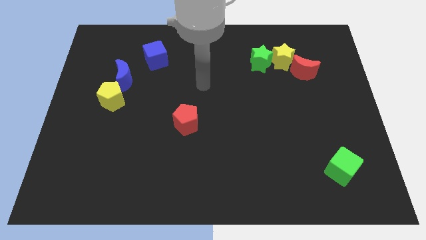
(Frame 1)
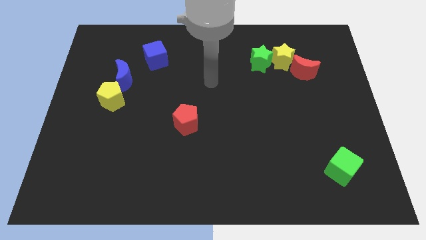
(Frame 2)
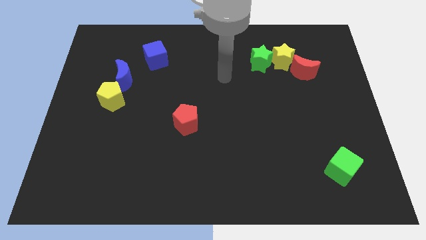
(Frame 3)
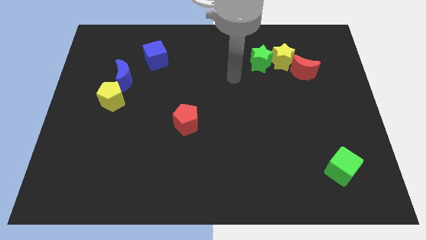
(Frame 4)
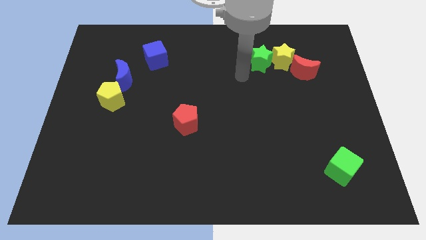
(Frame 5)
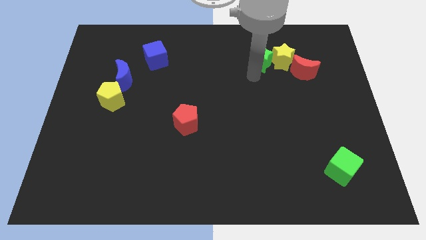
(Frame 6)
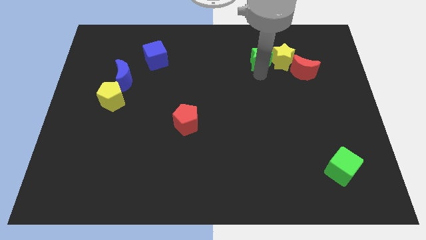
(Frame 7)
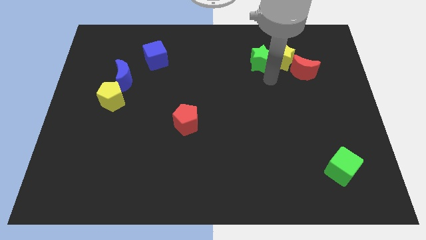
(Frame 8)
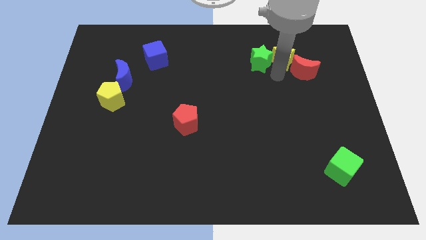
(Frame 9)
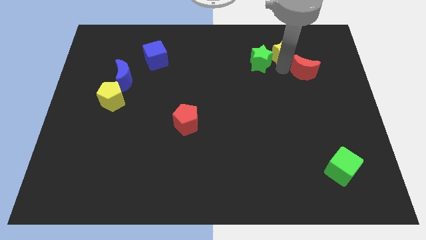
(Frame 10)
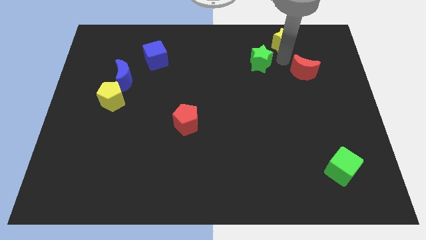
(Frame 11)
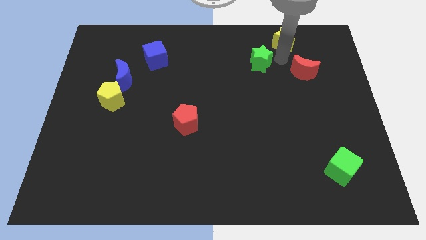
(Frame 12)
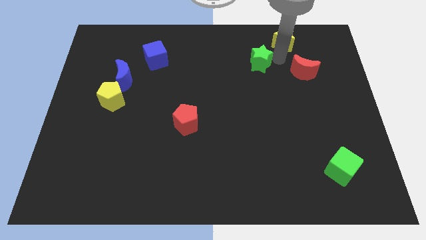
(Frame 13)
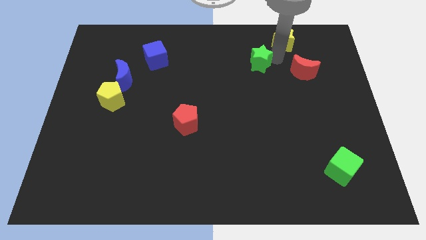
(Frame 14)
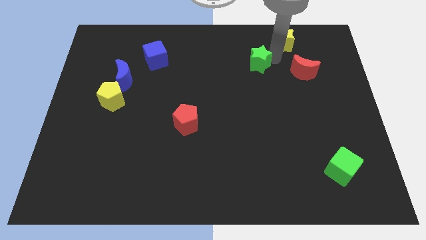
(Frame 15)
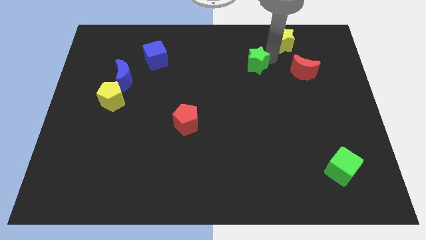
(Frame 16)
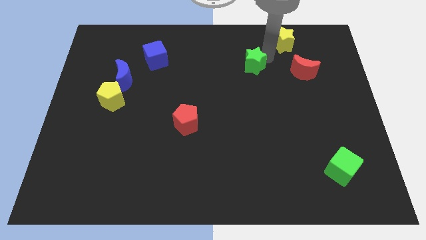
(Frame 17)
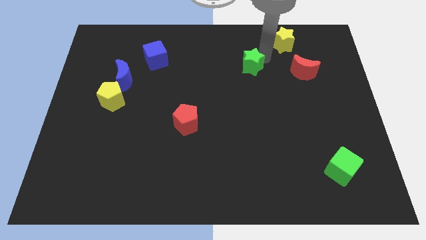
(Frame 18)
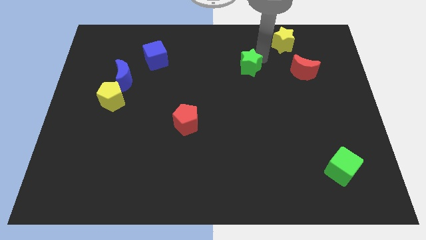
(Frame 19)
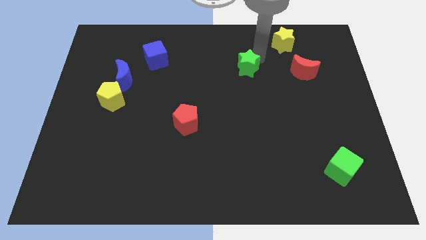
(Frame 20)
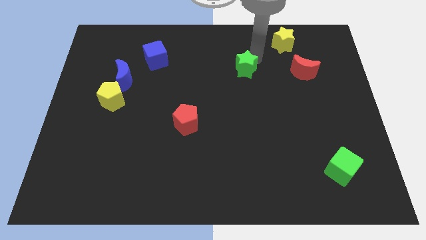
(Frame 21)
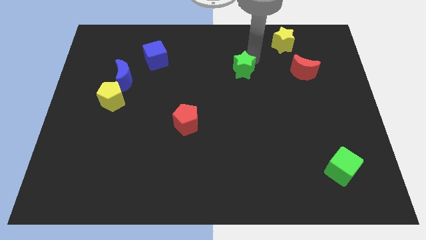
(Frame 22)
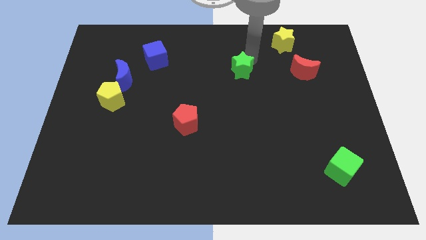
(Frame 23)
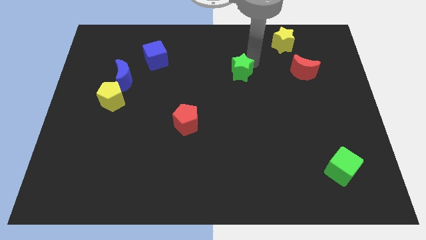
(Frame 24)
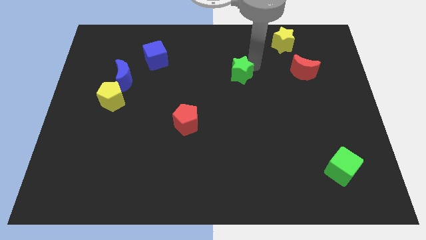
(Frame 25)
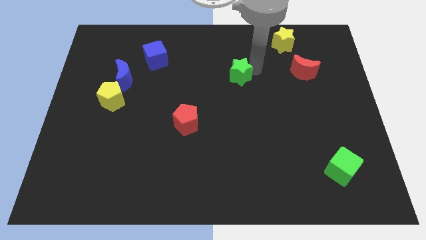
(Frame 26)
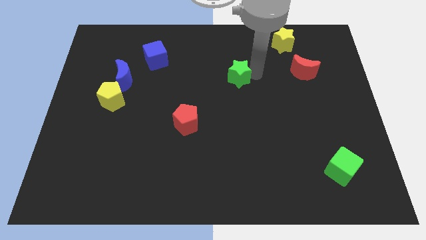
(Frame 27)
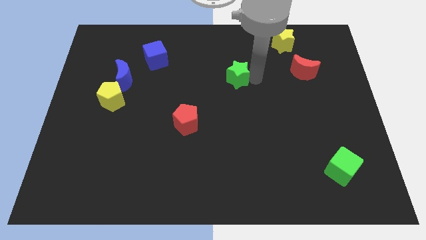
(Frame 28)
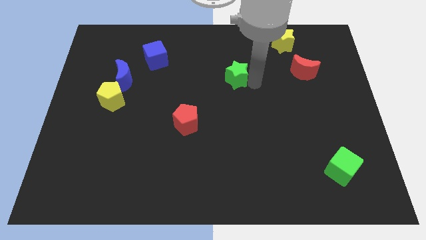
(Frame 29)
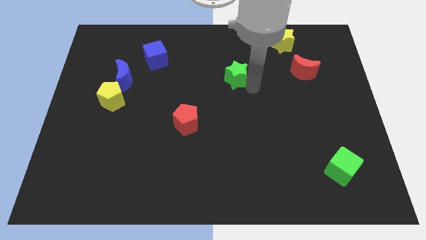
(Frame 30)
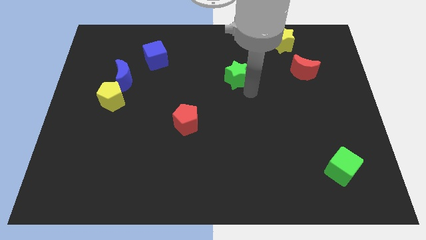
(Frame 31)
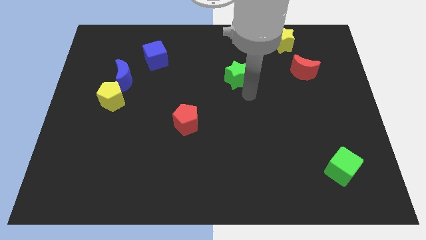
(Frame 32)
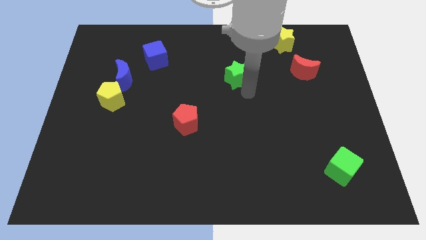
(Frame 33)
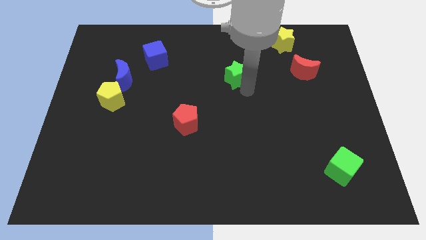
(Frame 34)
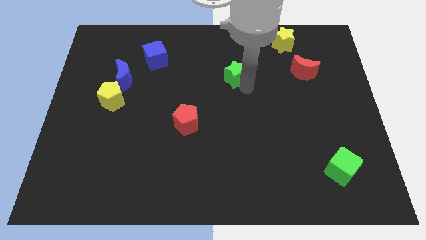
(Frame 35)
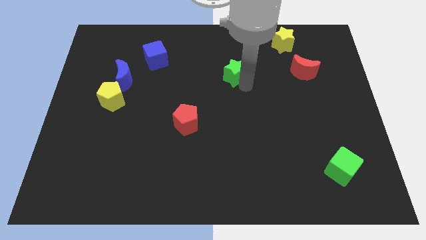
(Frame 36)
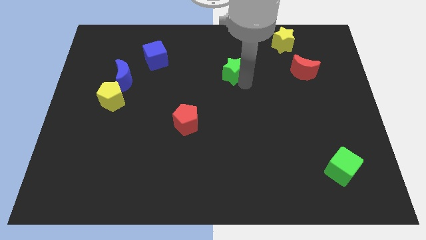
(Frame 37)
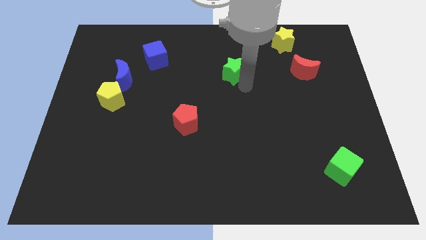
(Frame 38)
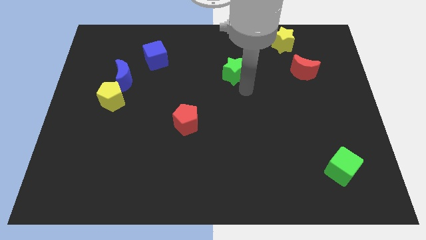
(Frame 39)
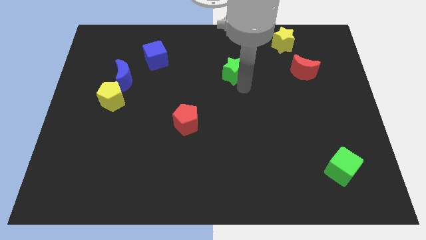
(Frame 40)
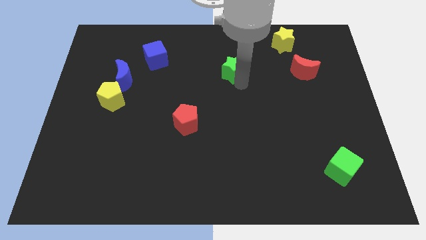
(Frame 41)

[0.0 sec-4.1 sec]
push the green star a little to the left

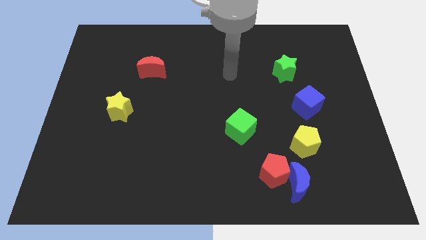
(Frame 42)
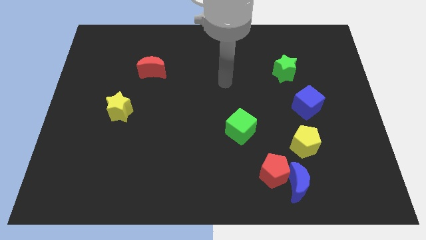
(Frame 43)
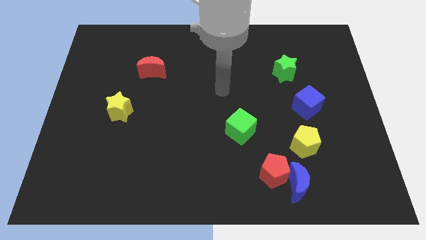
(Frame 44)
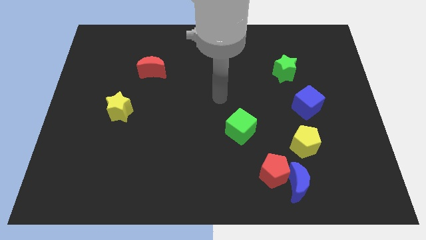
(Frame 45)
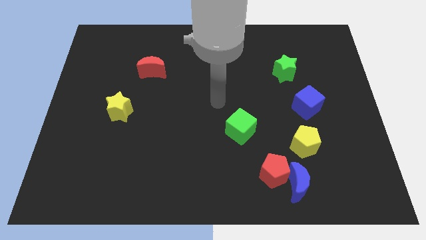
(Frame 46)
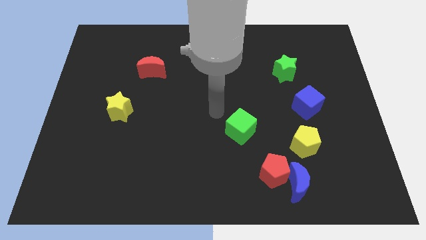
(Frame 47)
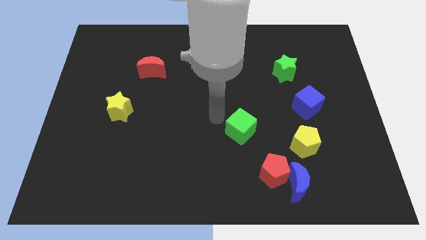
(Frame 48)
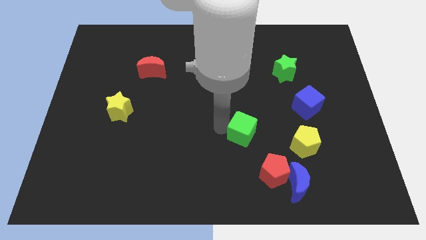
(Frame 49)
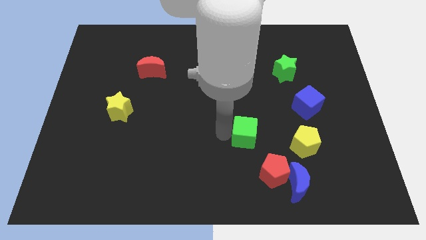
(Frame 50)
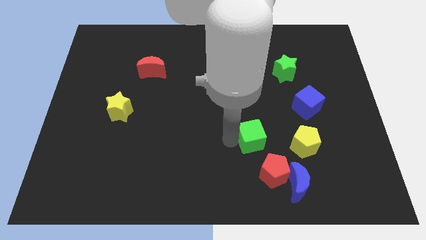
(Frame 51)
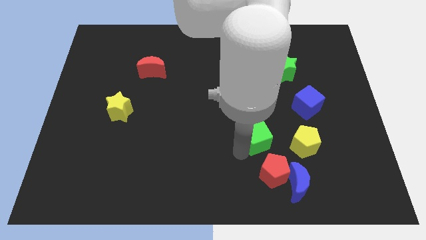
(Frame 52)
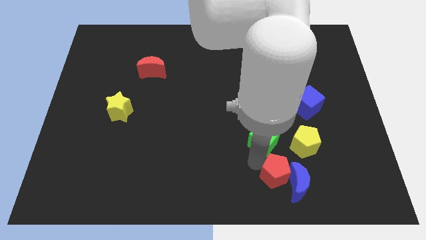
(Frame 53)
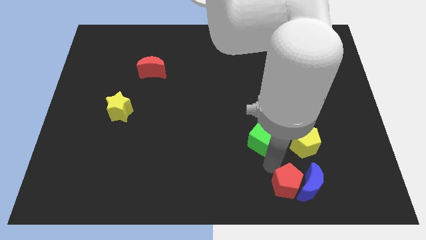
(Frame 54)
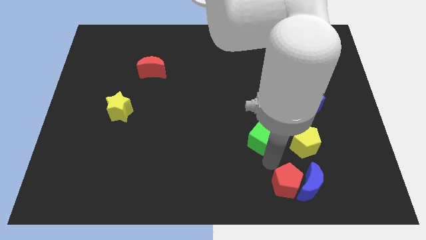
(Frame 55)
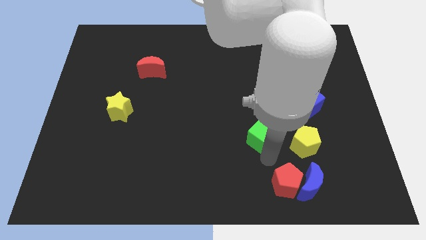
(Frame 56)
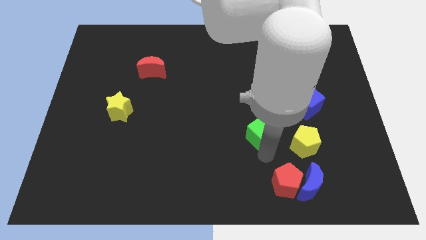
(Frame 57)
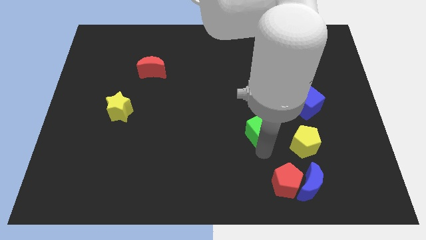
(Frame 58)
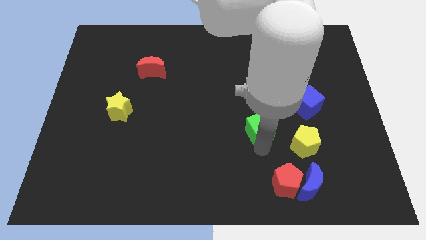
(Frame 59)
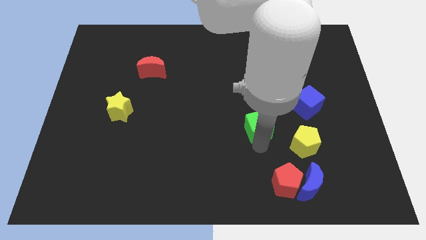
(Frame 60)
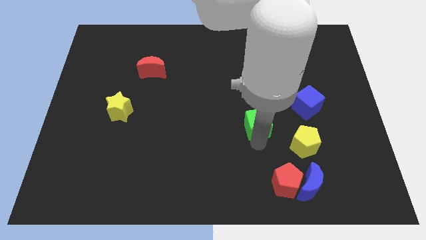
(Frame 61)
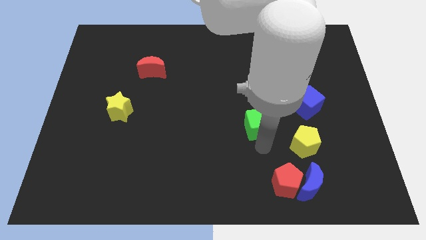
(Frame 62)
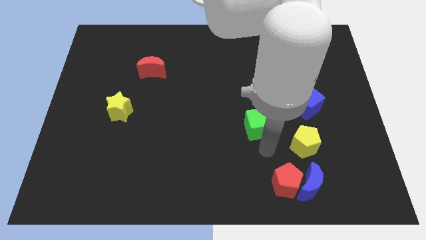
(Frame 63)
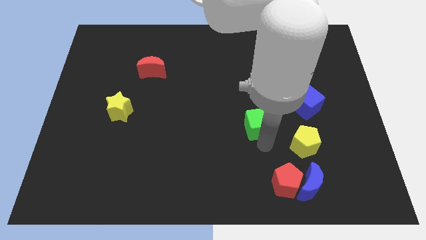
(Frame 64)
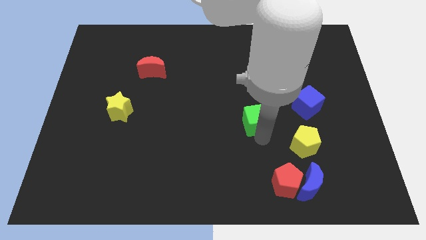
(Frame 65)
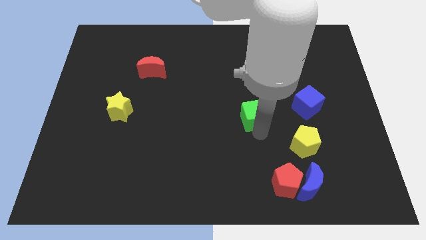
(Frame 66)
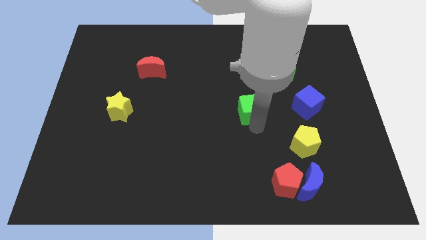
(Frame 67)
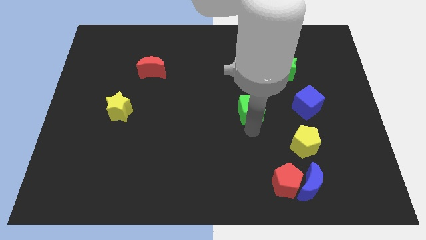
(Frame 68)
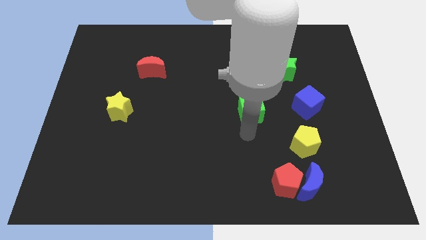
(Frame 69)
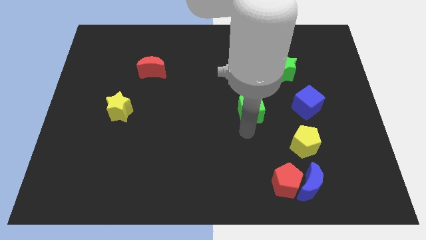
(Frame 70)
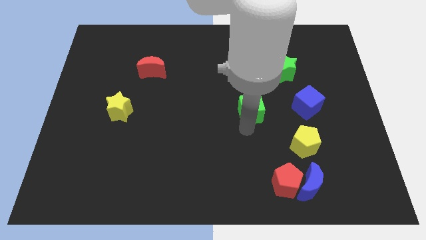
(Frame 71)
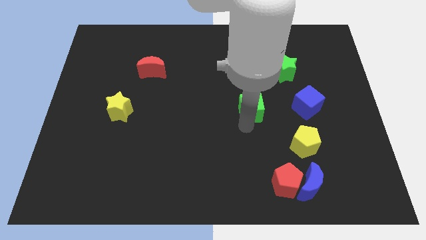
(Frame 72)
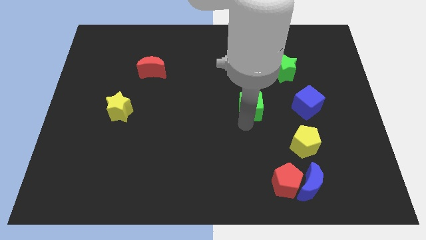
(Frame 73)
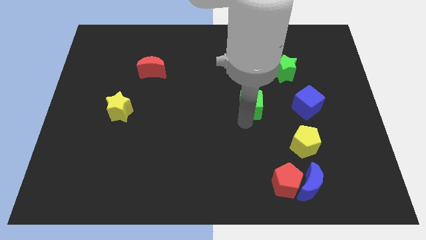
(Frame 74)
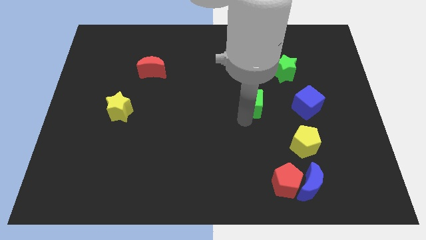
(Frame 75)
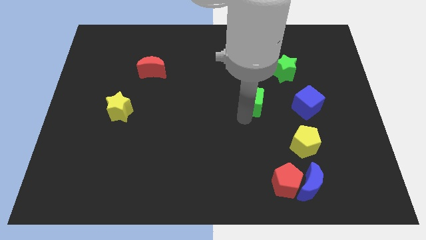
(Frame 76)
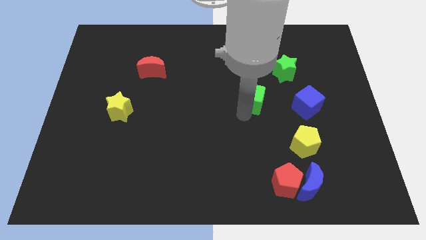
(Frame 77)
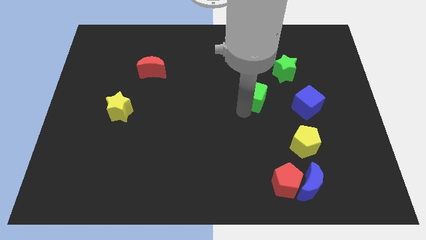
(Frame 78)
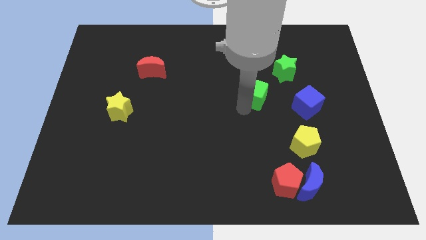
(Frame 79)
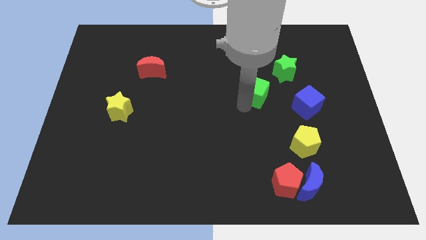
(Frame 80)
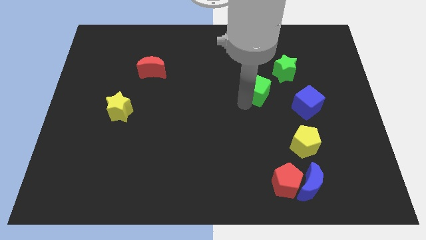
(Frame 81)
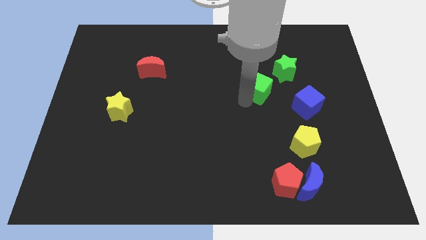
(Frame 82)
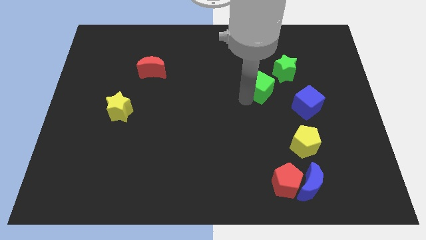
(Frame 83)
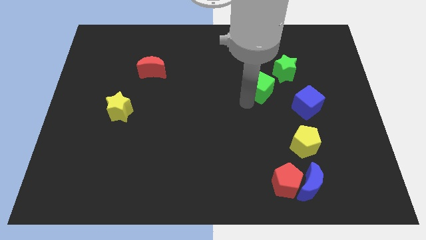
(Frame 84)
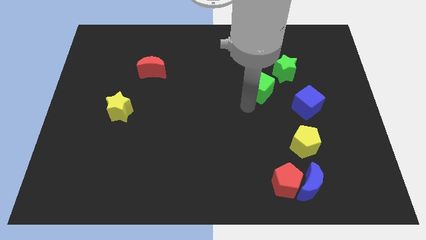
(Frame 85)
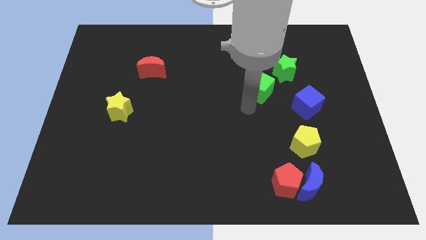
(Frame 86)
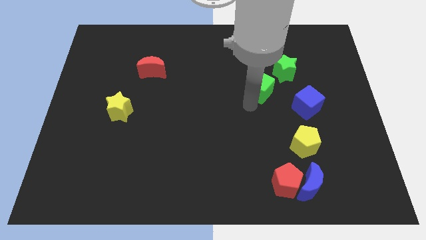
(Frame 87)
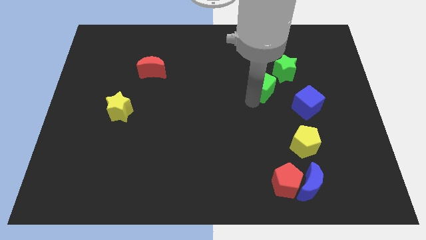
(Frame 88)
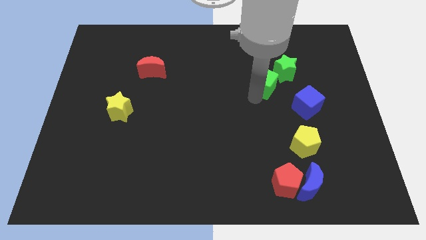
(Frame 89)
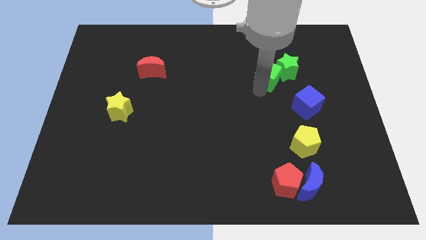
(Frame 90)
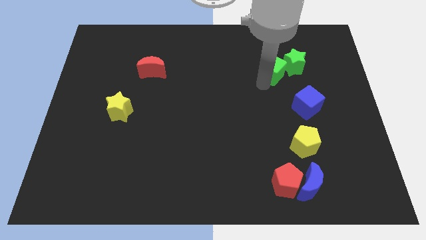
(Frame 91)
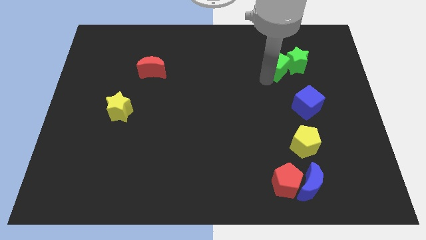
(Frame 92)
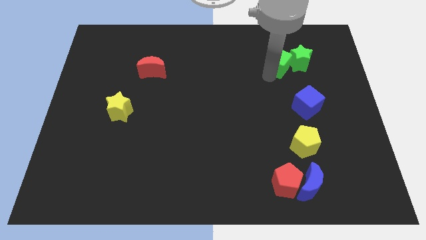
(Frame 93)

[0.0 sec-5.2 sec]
move the green cube diagonally upwards and right
